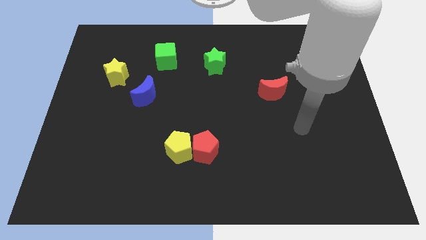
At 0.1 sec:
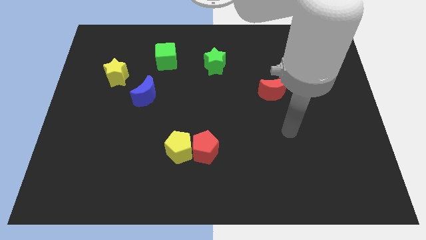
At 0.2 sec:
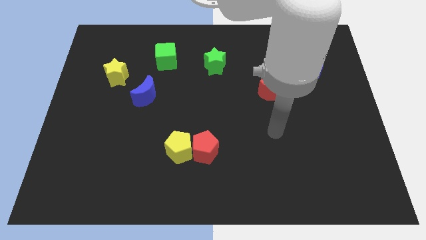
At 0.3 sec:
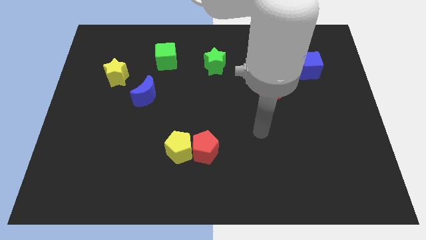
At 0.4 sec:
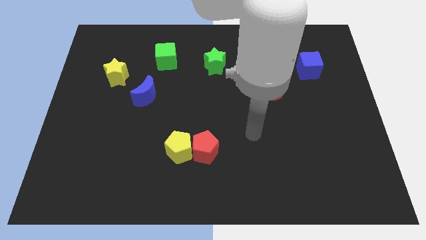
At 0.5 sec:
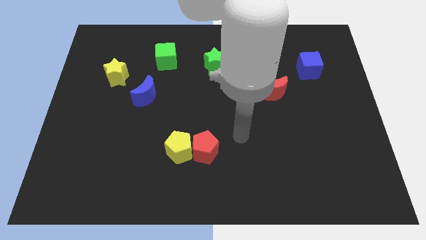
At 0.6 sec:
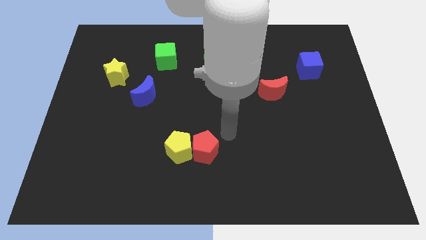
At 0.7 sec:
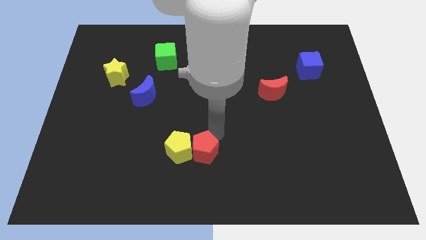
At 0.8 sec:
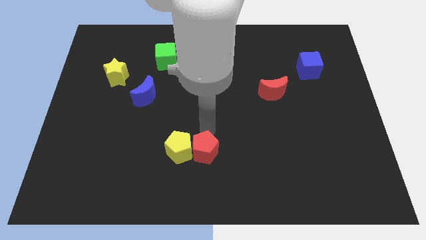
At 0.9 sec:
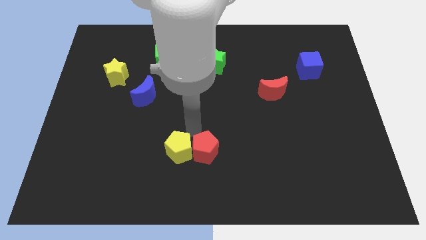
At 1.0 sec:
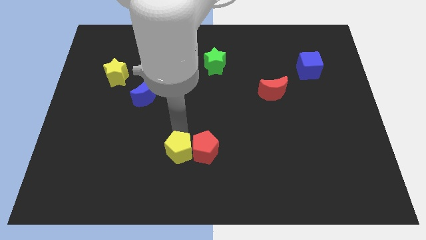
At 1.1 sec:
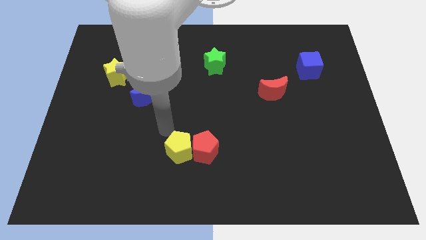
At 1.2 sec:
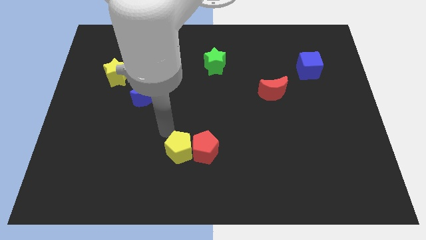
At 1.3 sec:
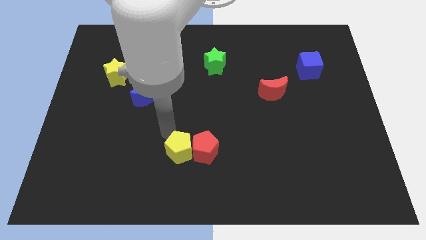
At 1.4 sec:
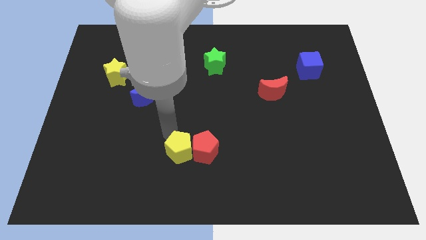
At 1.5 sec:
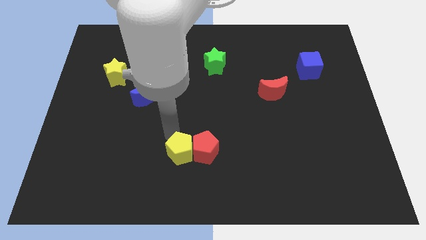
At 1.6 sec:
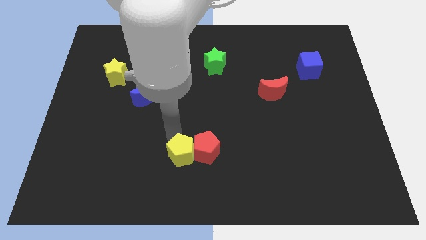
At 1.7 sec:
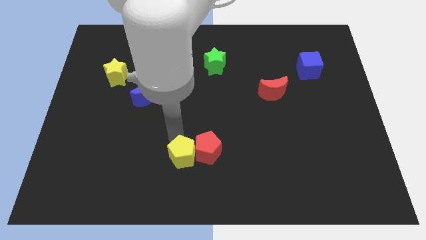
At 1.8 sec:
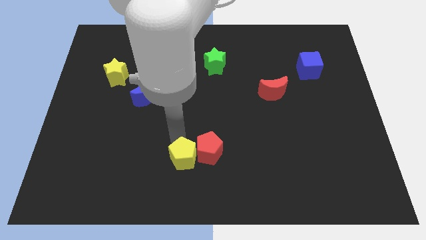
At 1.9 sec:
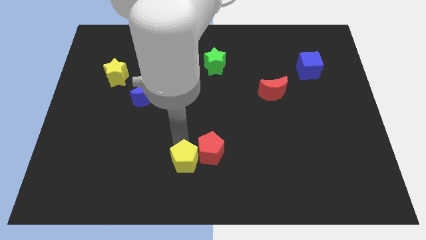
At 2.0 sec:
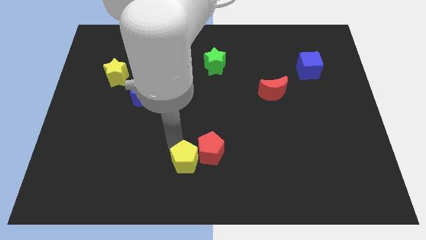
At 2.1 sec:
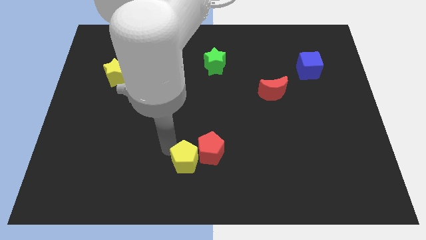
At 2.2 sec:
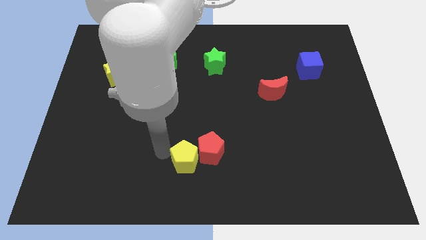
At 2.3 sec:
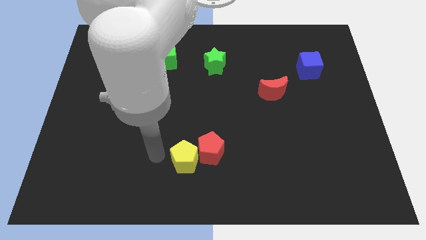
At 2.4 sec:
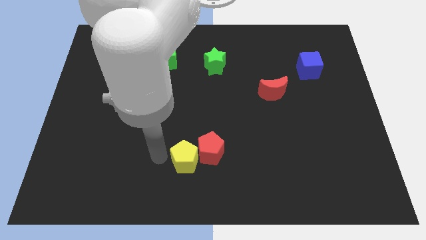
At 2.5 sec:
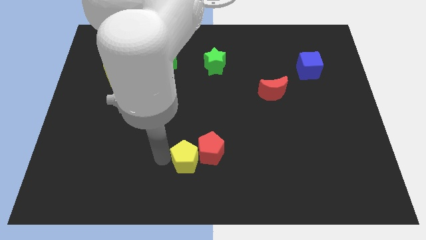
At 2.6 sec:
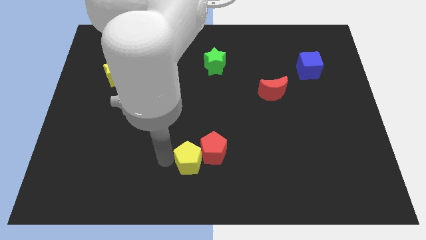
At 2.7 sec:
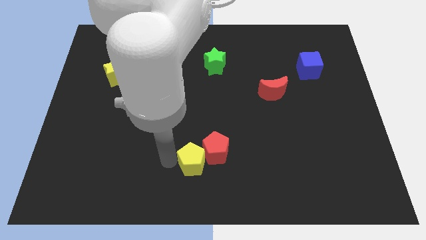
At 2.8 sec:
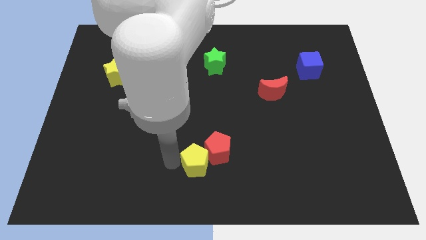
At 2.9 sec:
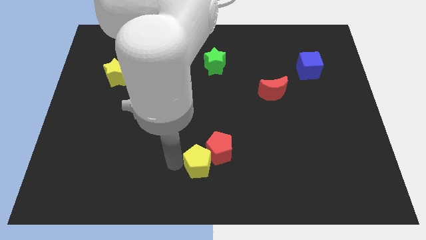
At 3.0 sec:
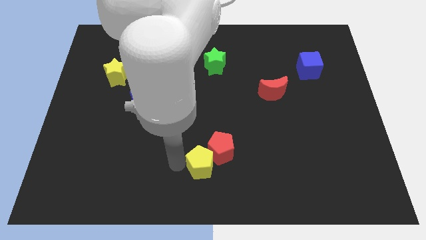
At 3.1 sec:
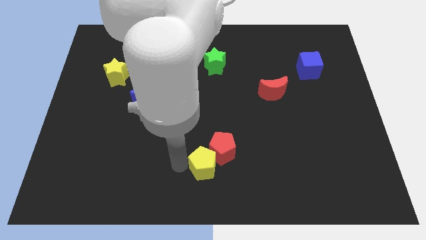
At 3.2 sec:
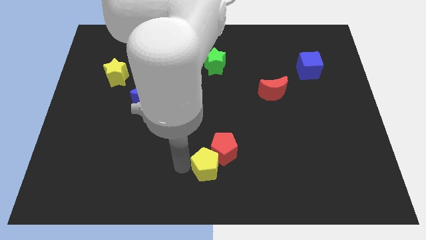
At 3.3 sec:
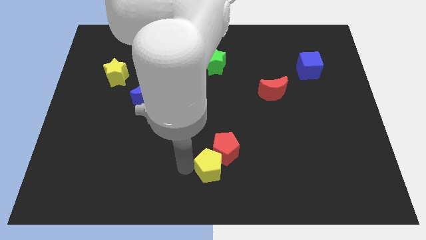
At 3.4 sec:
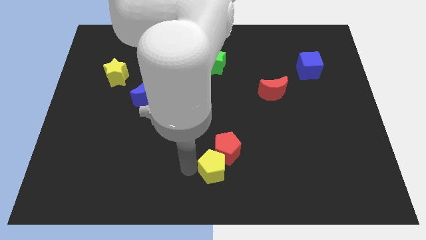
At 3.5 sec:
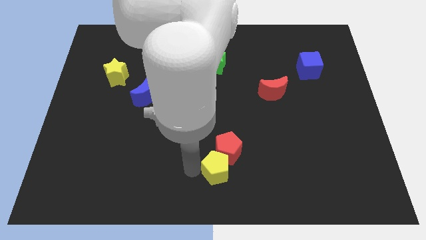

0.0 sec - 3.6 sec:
slightly push the yellow pentagon right

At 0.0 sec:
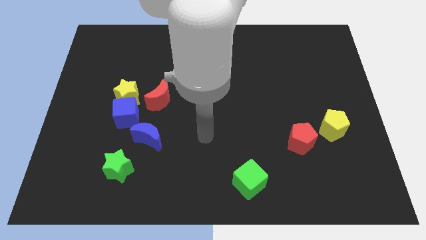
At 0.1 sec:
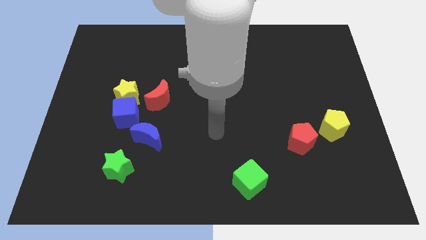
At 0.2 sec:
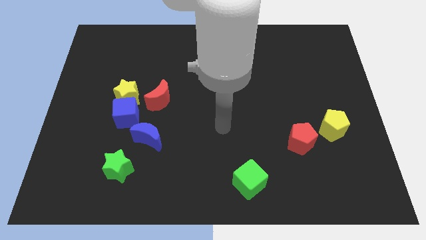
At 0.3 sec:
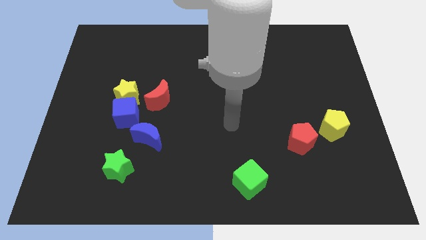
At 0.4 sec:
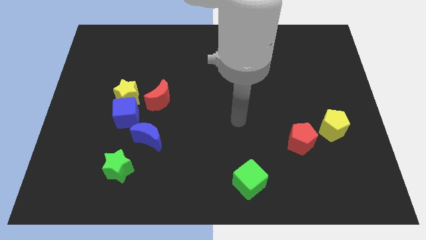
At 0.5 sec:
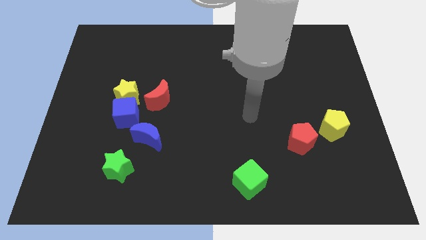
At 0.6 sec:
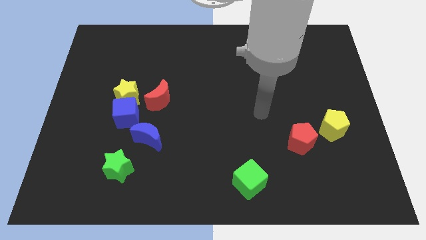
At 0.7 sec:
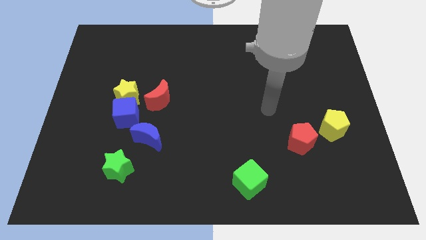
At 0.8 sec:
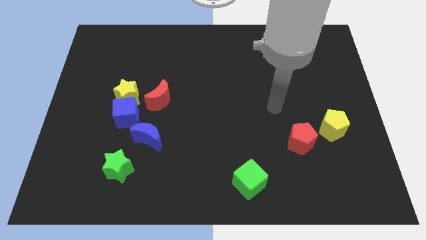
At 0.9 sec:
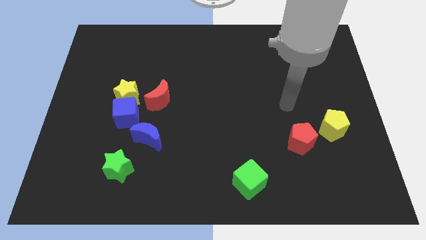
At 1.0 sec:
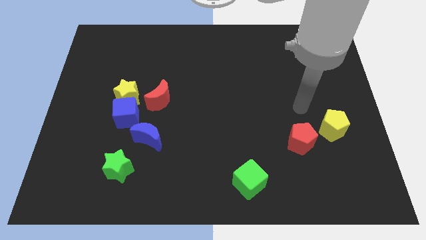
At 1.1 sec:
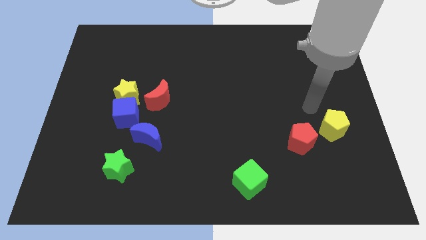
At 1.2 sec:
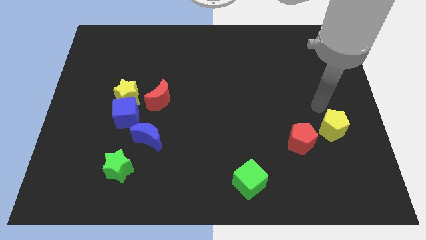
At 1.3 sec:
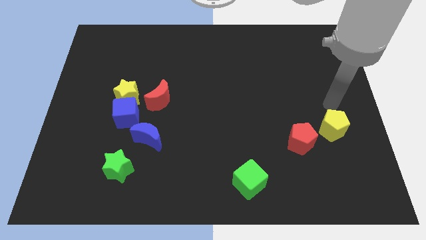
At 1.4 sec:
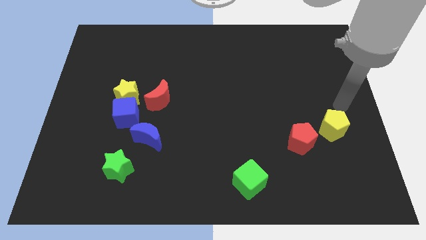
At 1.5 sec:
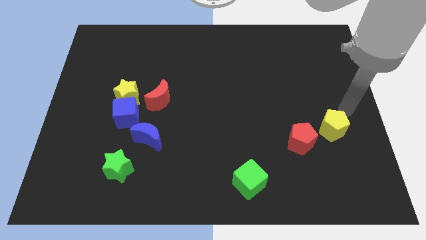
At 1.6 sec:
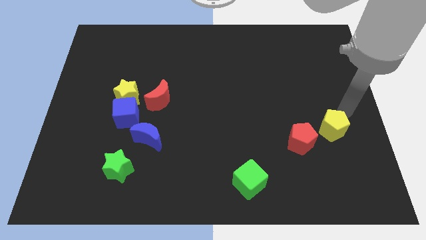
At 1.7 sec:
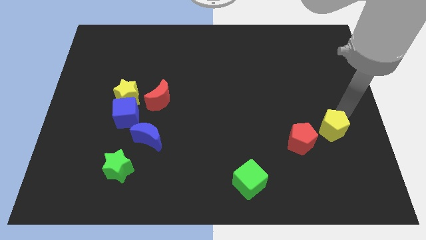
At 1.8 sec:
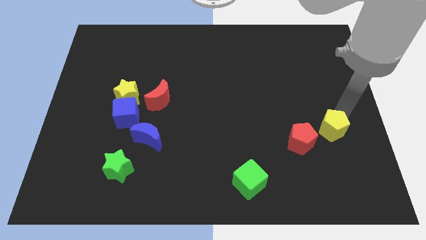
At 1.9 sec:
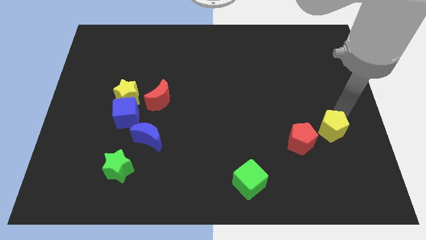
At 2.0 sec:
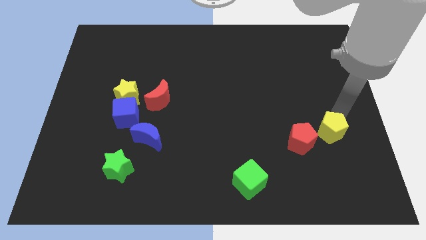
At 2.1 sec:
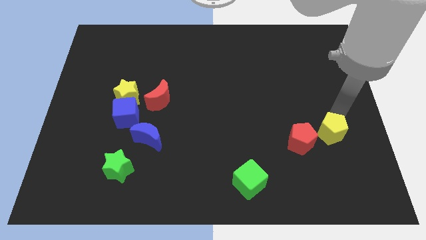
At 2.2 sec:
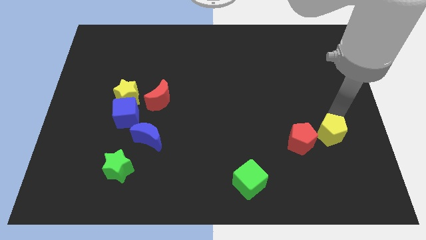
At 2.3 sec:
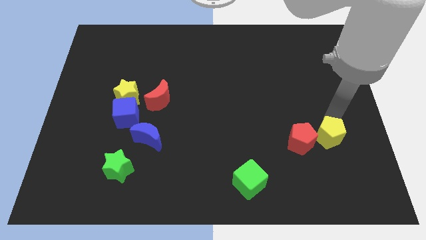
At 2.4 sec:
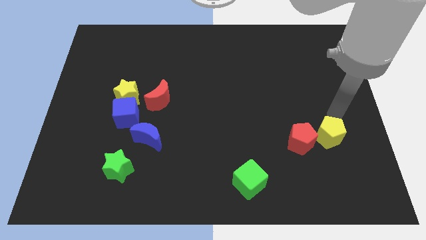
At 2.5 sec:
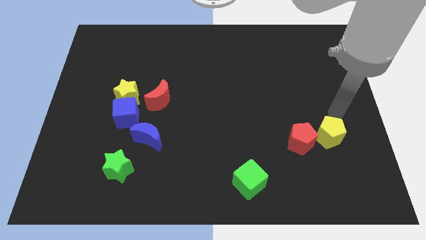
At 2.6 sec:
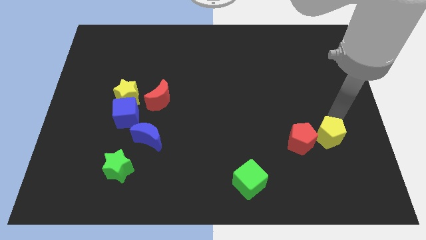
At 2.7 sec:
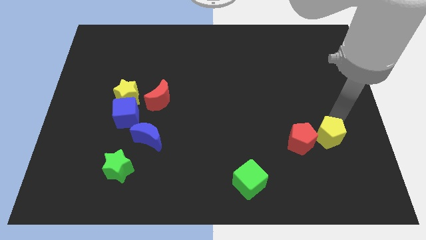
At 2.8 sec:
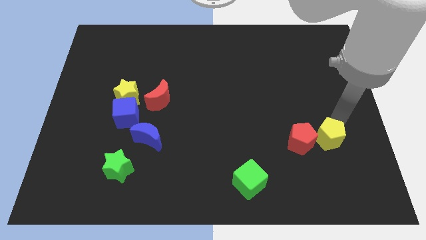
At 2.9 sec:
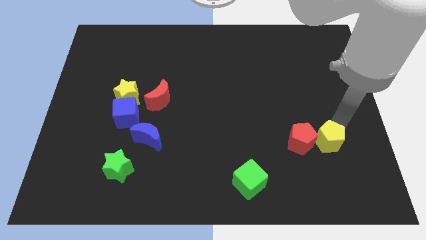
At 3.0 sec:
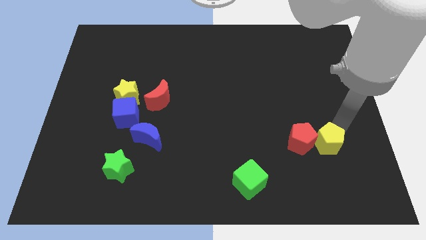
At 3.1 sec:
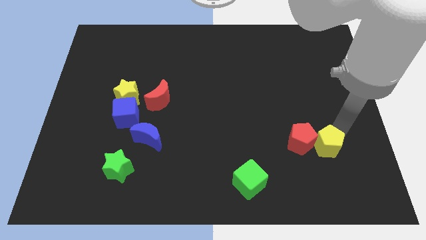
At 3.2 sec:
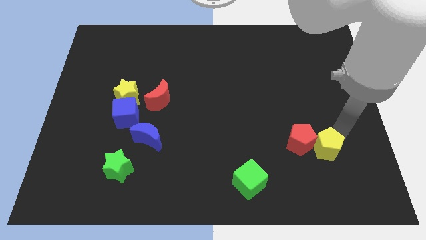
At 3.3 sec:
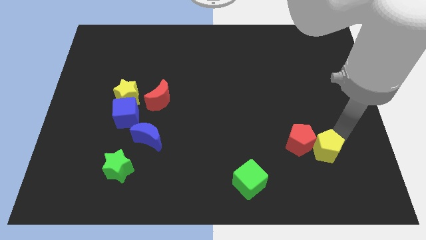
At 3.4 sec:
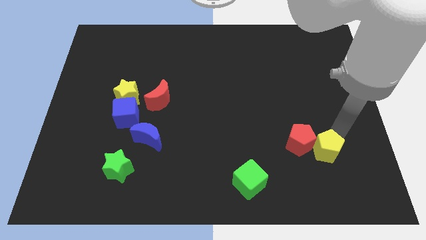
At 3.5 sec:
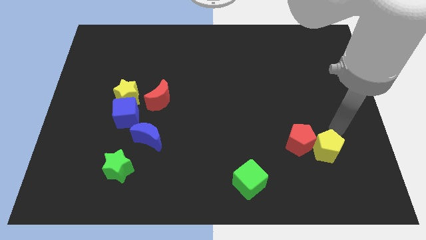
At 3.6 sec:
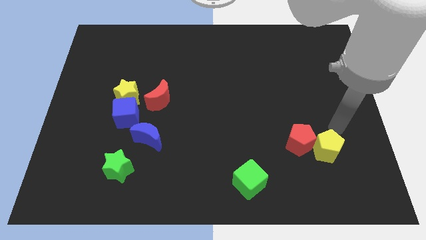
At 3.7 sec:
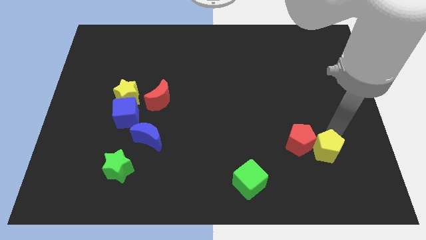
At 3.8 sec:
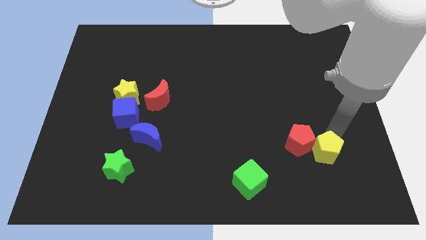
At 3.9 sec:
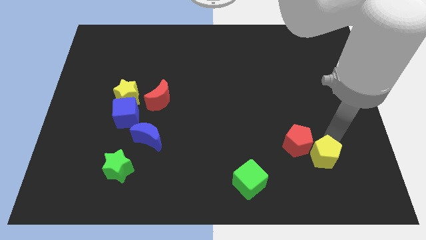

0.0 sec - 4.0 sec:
slightly slide the yellow pentagon down and then to the left
